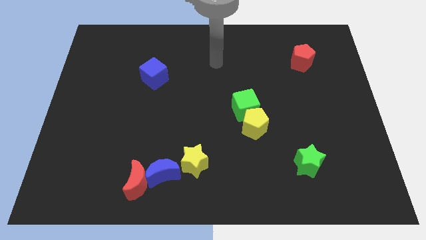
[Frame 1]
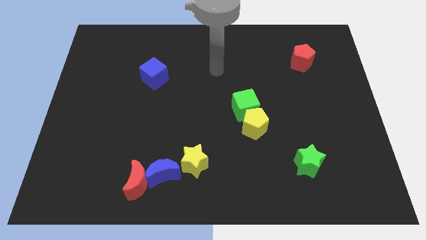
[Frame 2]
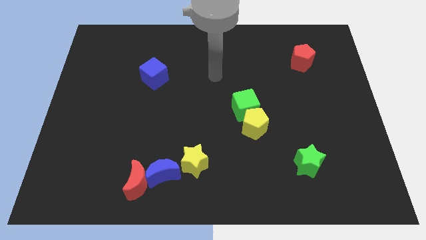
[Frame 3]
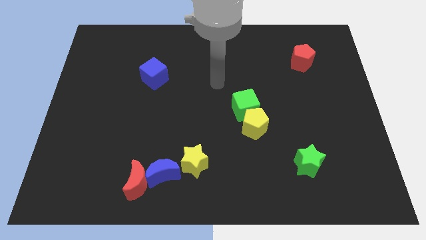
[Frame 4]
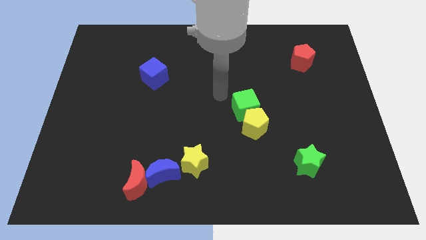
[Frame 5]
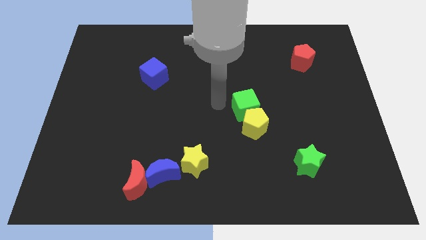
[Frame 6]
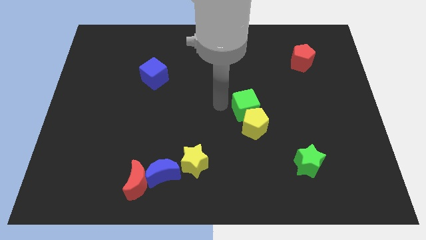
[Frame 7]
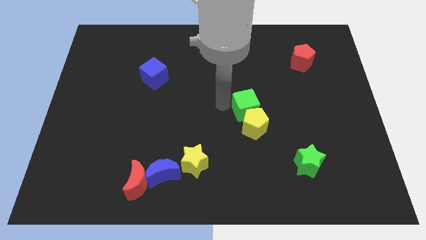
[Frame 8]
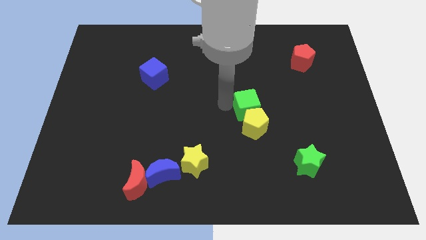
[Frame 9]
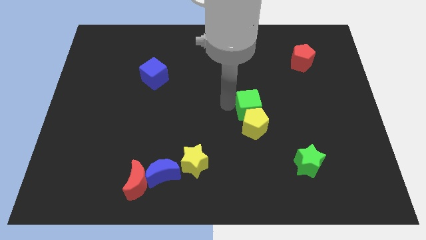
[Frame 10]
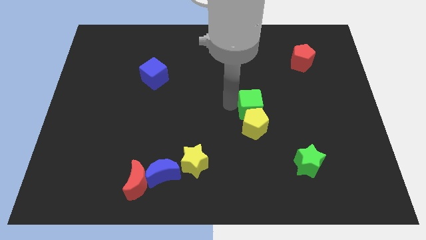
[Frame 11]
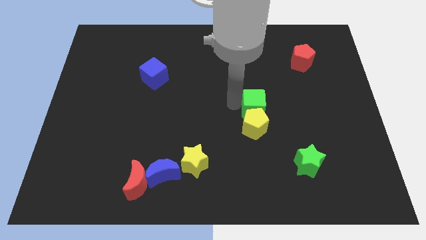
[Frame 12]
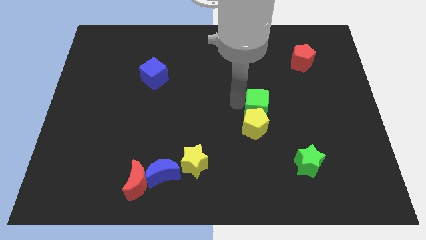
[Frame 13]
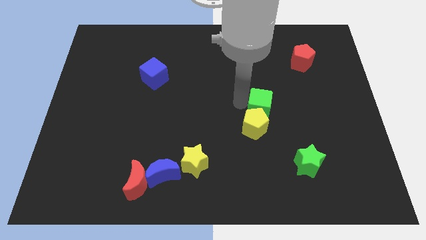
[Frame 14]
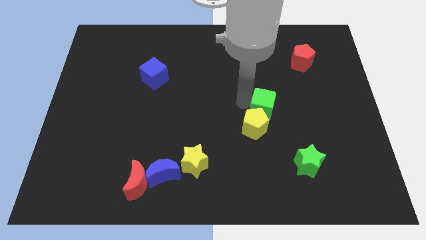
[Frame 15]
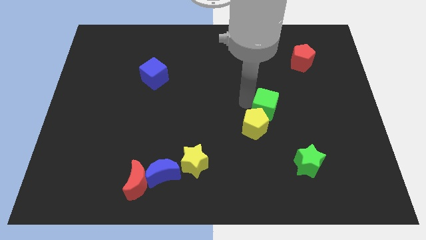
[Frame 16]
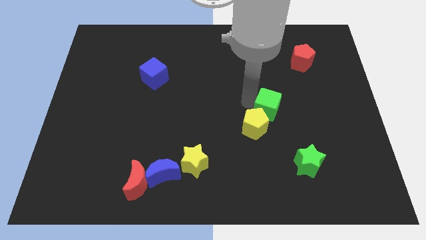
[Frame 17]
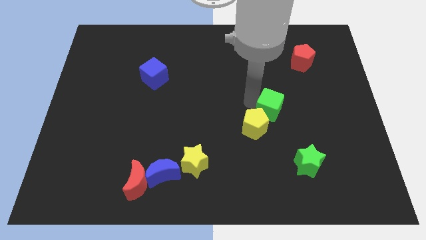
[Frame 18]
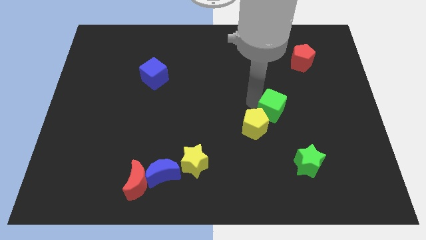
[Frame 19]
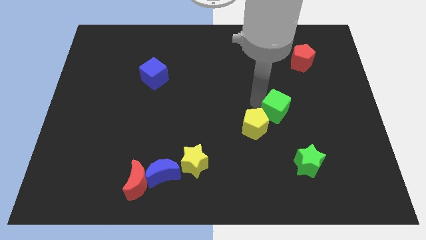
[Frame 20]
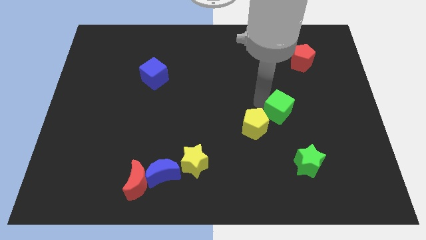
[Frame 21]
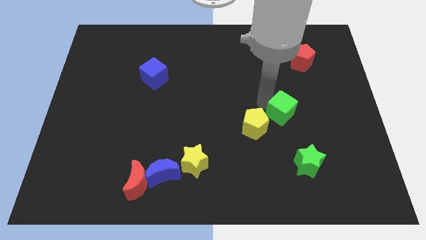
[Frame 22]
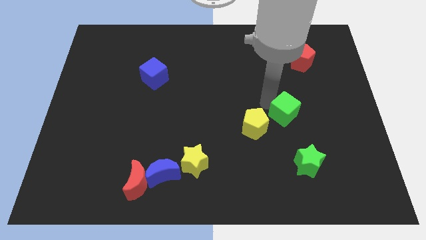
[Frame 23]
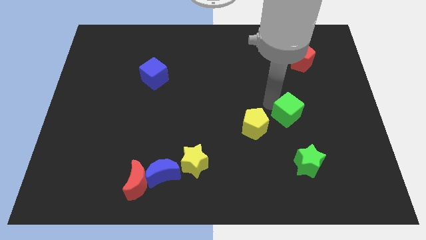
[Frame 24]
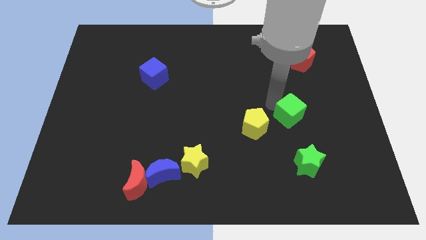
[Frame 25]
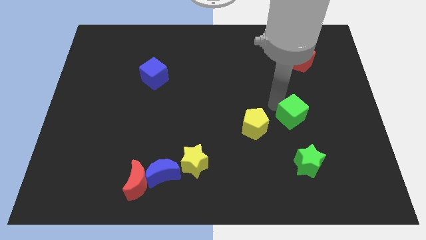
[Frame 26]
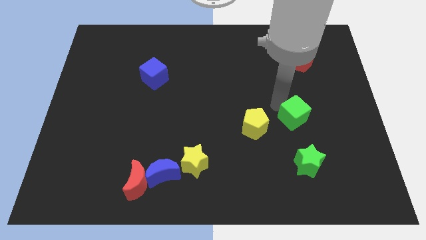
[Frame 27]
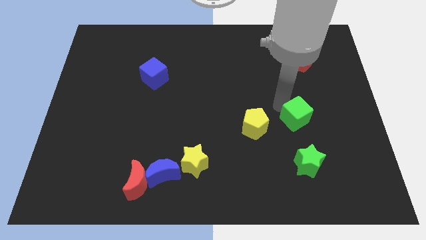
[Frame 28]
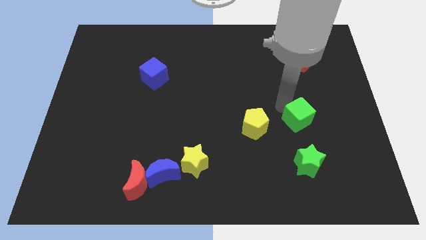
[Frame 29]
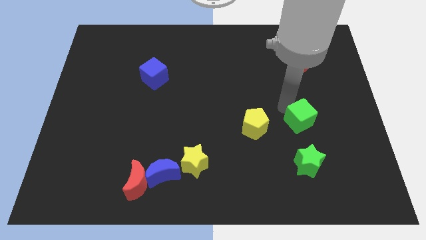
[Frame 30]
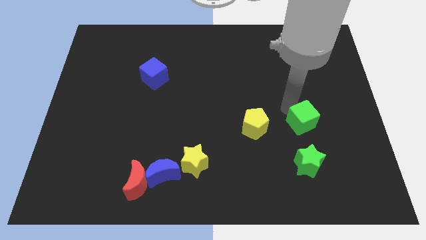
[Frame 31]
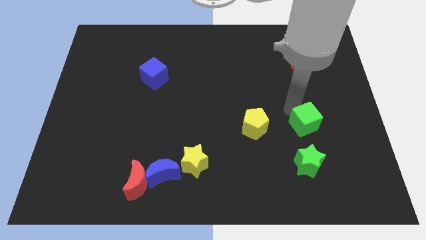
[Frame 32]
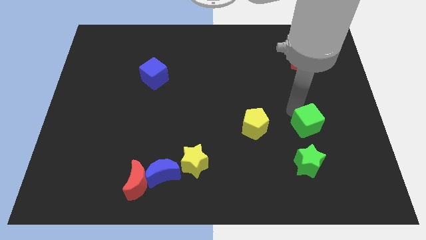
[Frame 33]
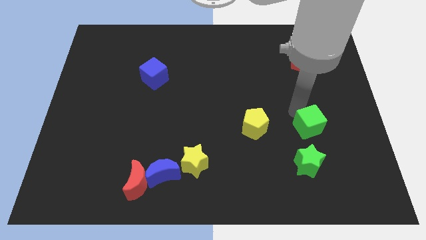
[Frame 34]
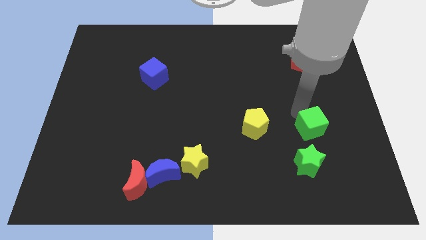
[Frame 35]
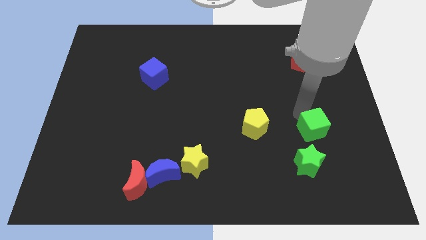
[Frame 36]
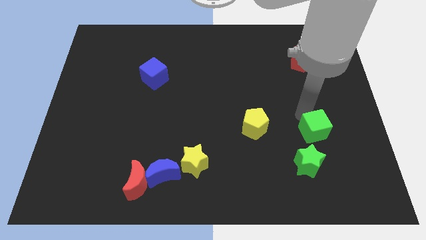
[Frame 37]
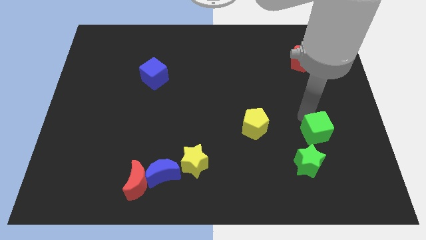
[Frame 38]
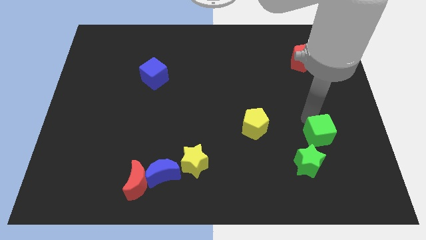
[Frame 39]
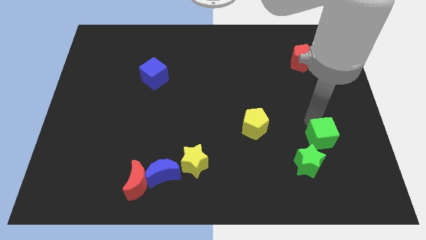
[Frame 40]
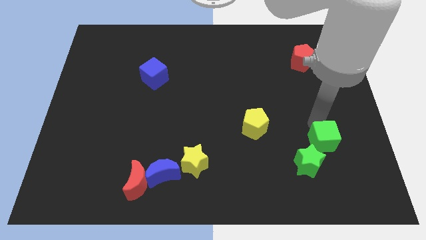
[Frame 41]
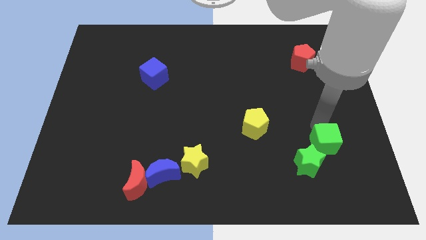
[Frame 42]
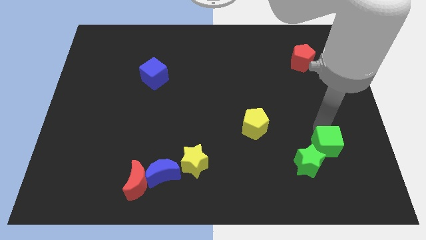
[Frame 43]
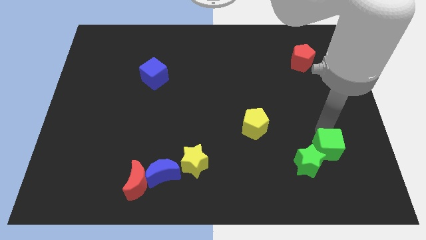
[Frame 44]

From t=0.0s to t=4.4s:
move the green cube close to the green star

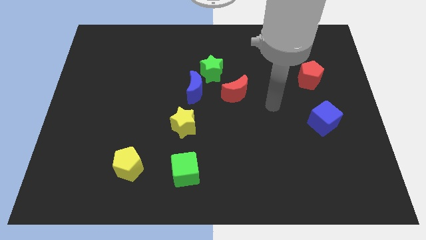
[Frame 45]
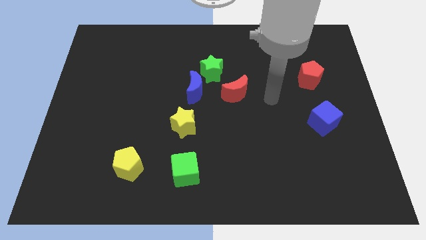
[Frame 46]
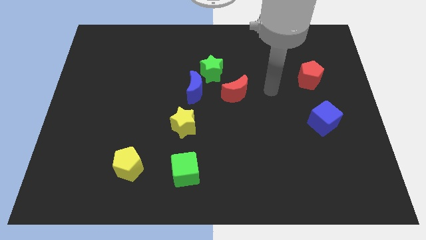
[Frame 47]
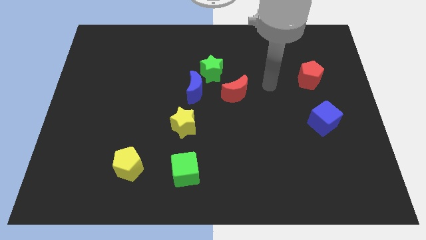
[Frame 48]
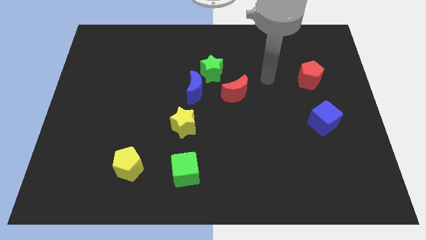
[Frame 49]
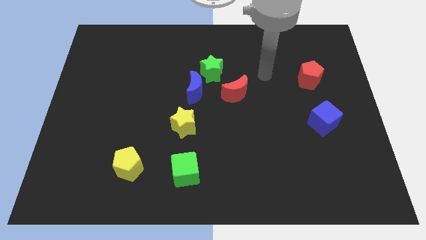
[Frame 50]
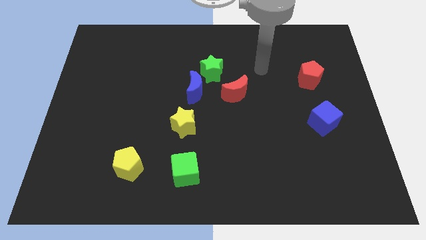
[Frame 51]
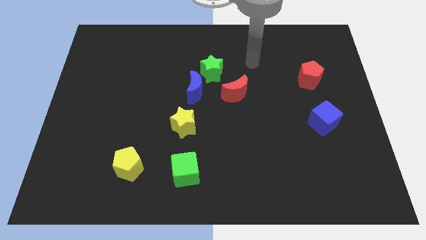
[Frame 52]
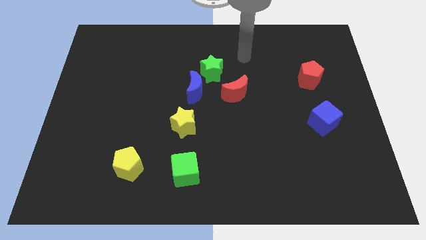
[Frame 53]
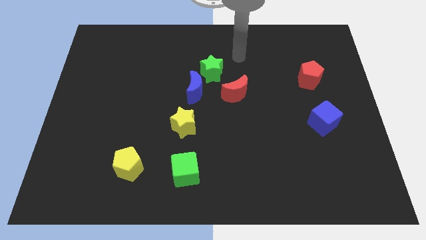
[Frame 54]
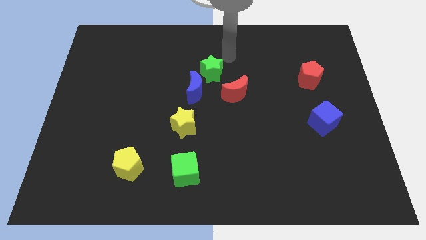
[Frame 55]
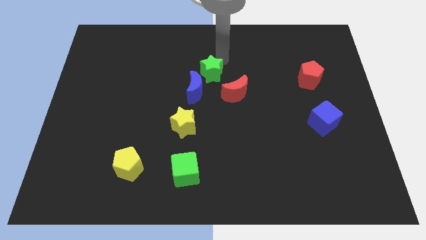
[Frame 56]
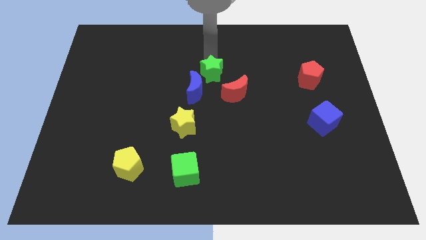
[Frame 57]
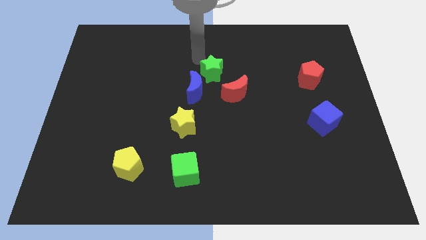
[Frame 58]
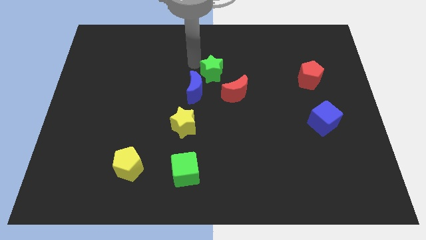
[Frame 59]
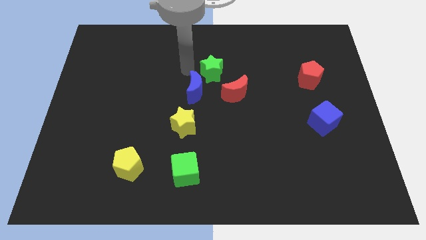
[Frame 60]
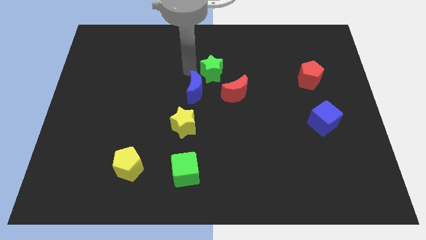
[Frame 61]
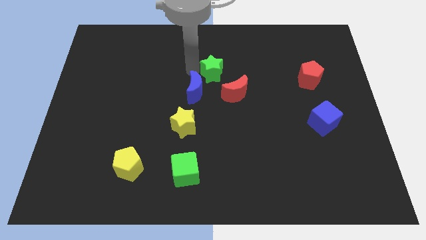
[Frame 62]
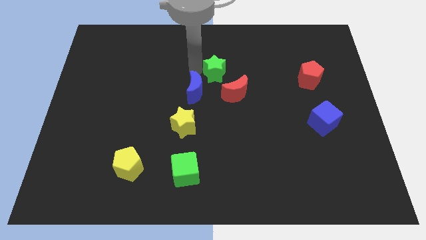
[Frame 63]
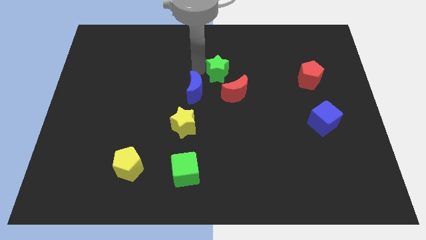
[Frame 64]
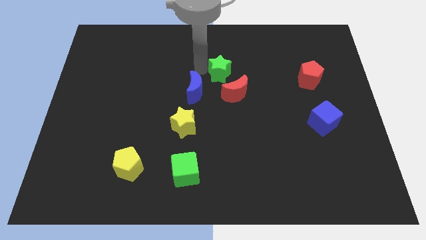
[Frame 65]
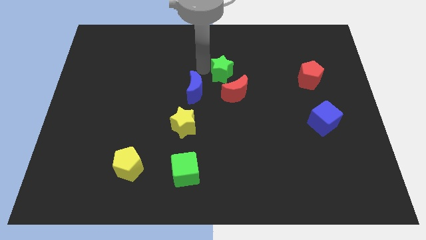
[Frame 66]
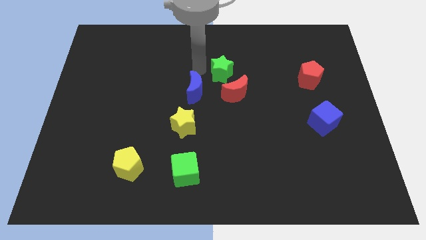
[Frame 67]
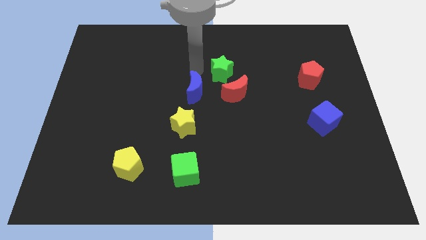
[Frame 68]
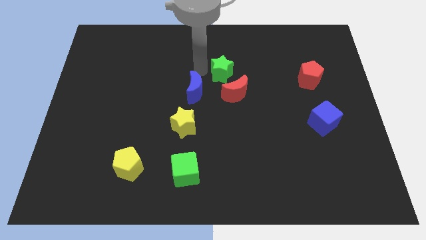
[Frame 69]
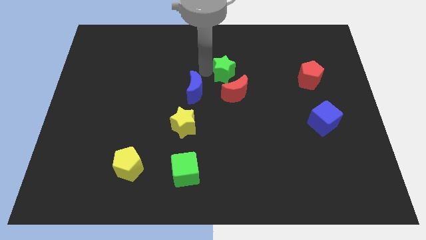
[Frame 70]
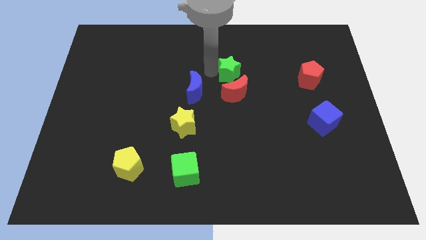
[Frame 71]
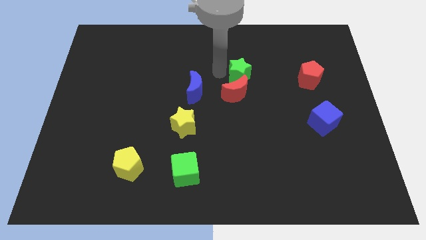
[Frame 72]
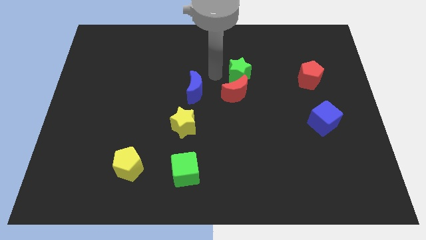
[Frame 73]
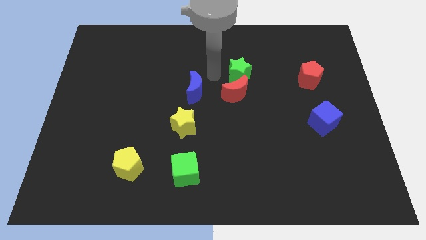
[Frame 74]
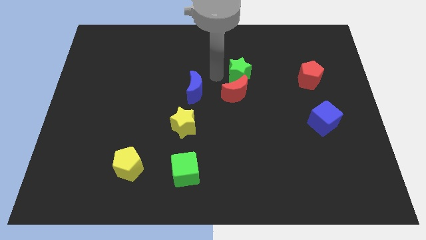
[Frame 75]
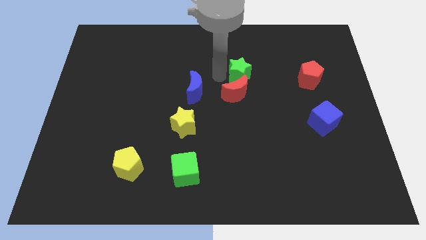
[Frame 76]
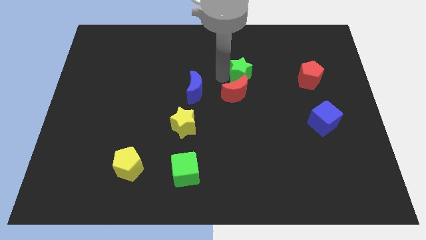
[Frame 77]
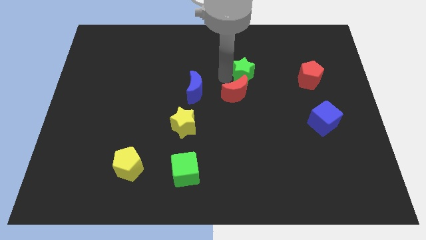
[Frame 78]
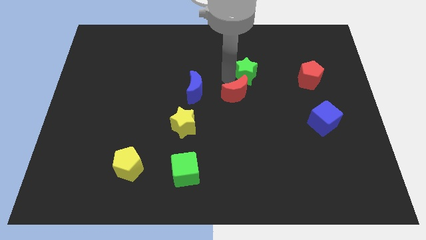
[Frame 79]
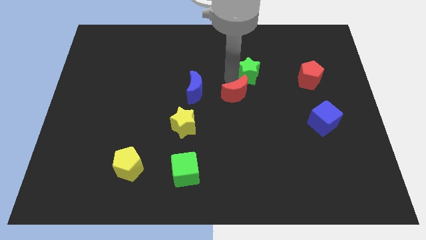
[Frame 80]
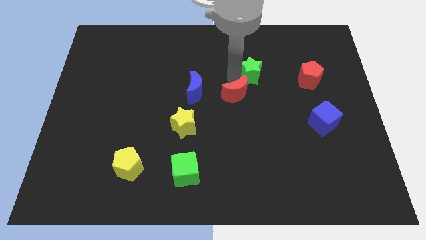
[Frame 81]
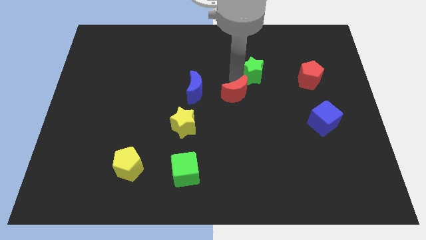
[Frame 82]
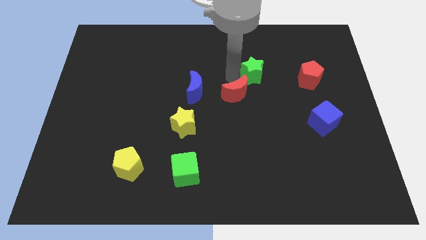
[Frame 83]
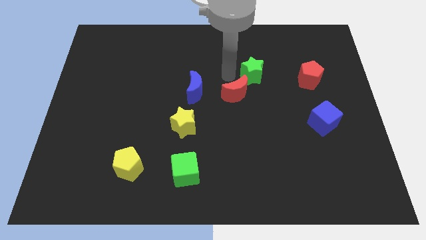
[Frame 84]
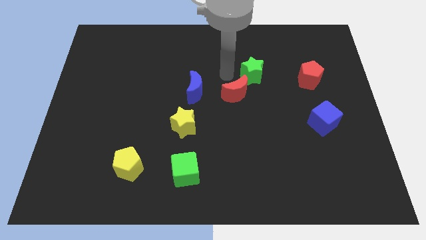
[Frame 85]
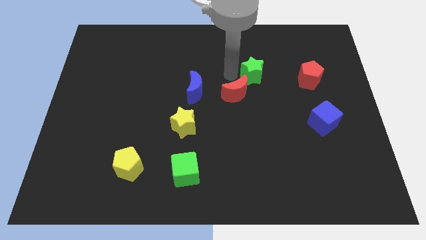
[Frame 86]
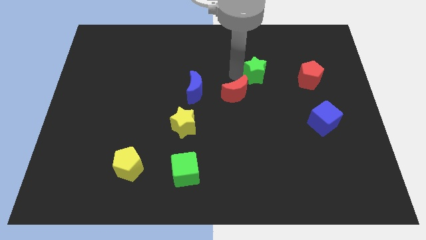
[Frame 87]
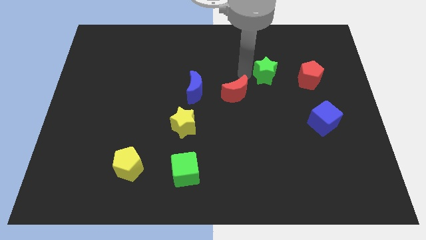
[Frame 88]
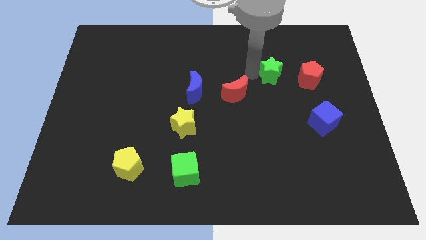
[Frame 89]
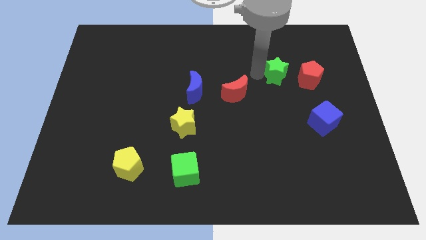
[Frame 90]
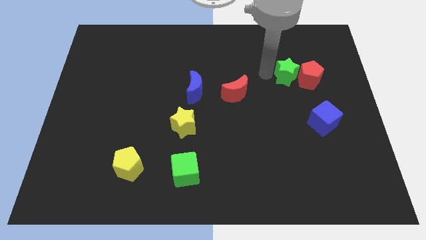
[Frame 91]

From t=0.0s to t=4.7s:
move the green star to the red pentagon
